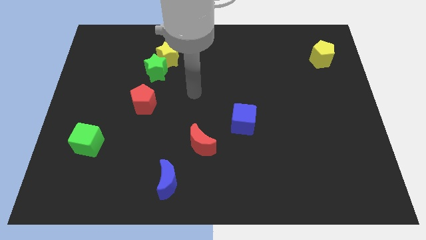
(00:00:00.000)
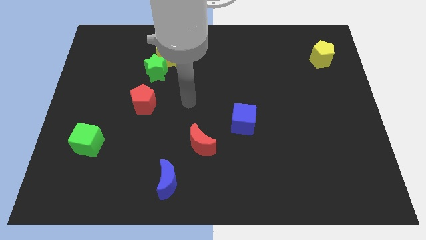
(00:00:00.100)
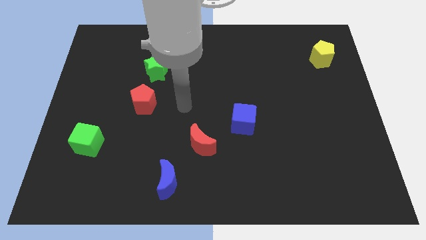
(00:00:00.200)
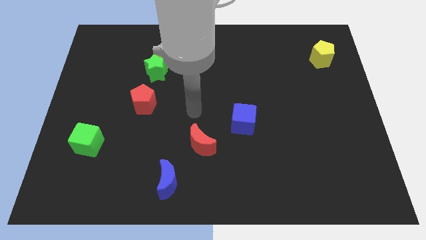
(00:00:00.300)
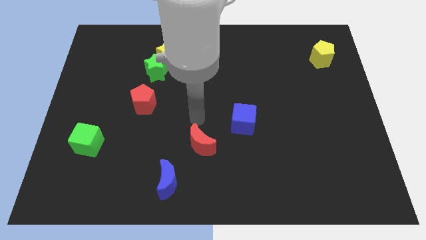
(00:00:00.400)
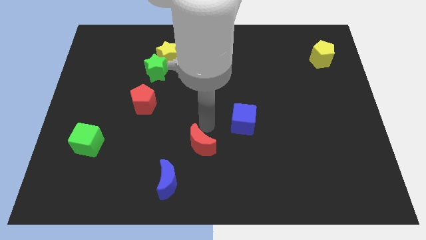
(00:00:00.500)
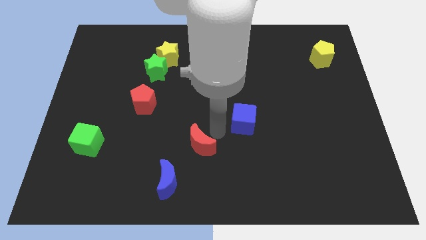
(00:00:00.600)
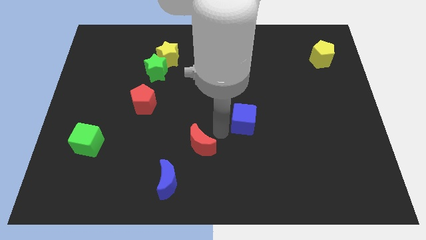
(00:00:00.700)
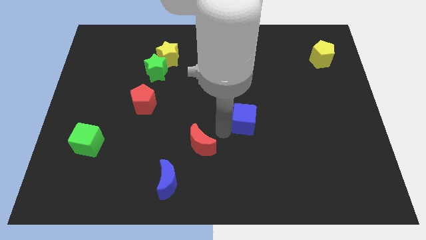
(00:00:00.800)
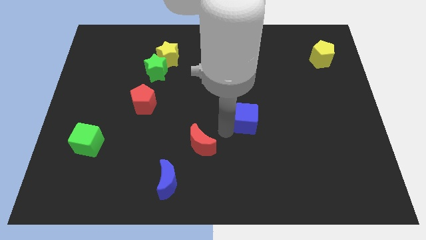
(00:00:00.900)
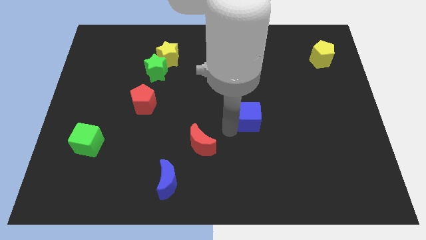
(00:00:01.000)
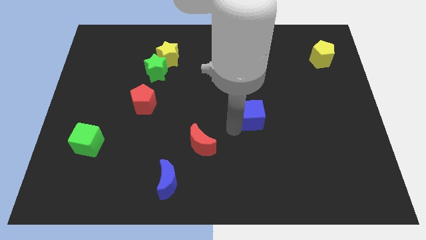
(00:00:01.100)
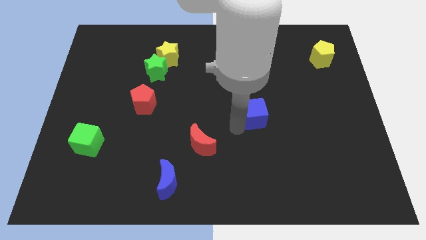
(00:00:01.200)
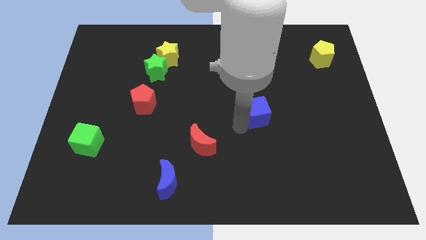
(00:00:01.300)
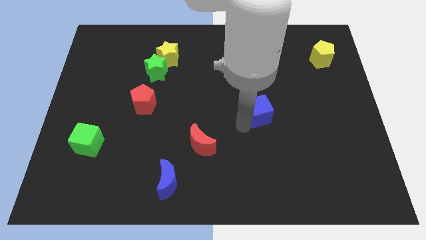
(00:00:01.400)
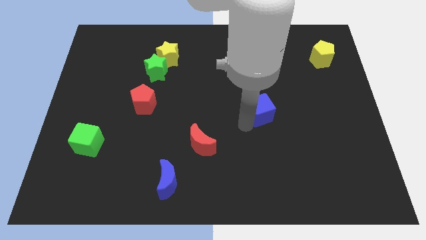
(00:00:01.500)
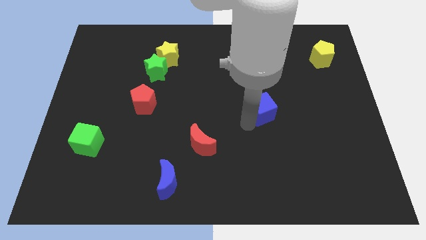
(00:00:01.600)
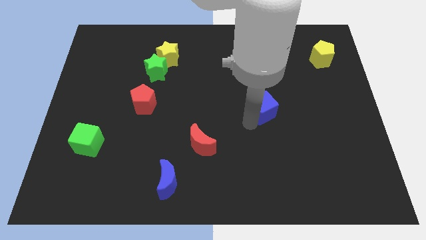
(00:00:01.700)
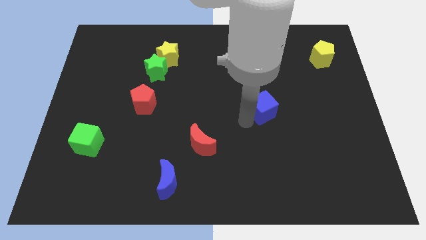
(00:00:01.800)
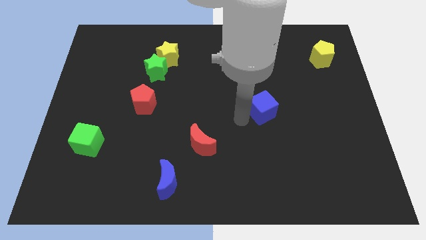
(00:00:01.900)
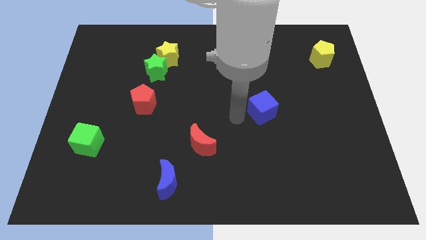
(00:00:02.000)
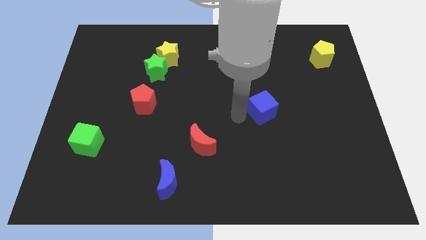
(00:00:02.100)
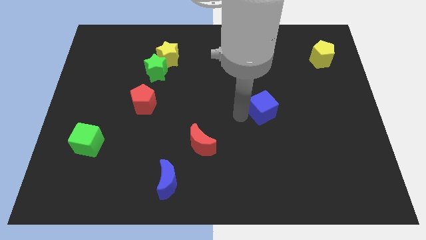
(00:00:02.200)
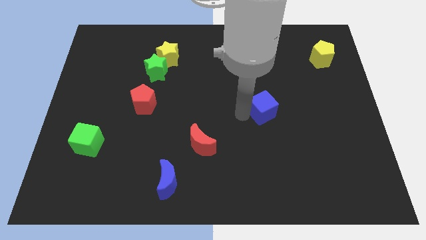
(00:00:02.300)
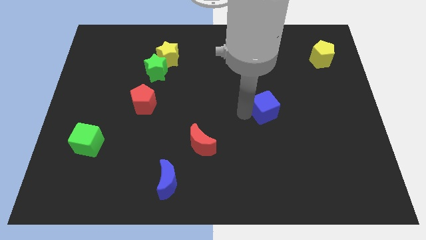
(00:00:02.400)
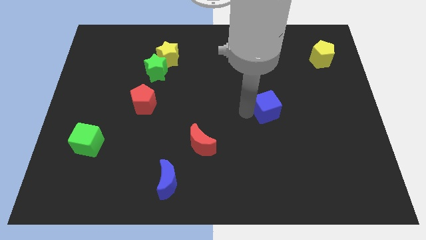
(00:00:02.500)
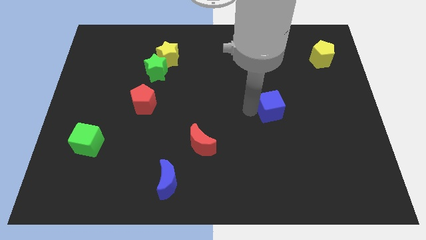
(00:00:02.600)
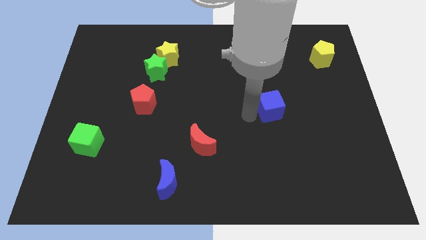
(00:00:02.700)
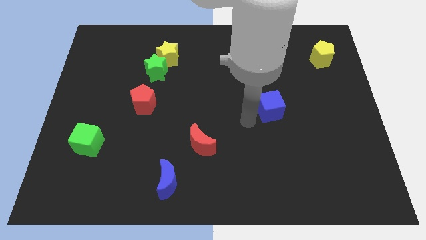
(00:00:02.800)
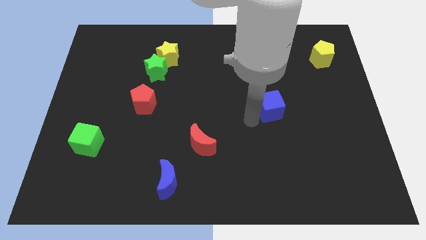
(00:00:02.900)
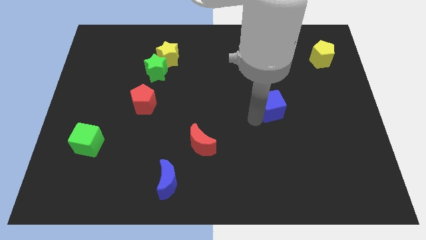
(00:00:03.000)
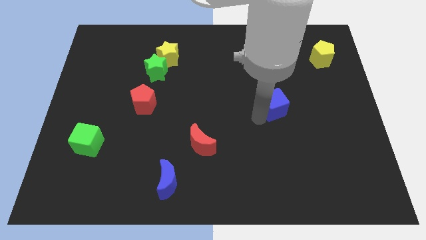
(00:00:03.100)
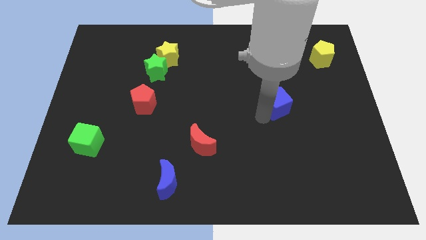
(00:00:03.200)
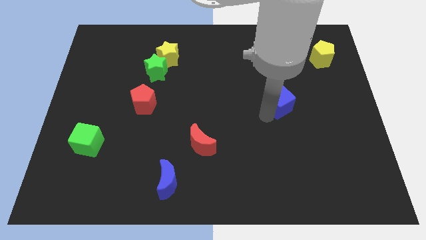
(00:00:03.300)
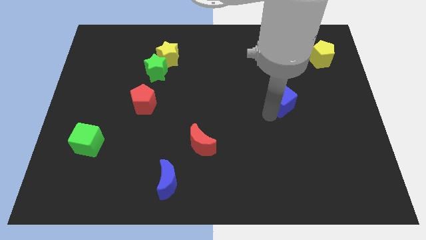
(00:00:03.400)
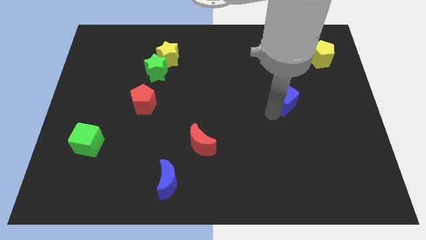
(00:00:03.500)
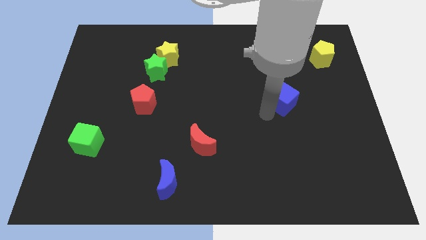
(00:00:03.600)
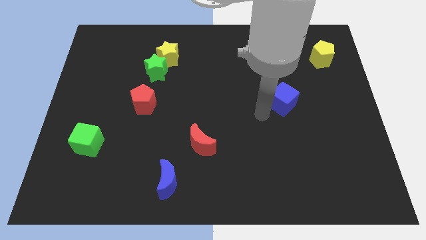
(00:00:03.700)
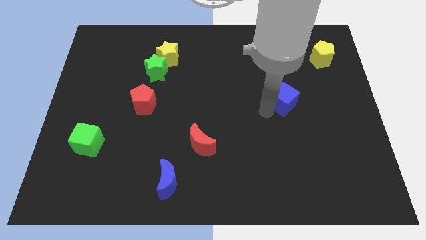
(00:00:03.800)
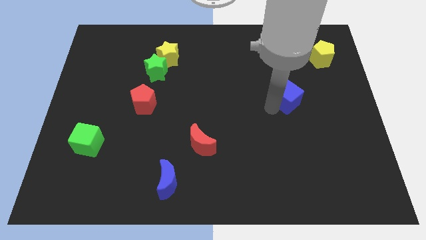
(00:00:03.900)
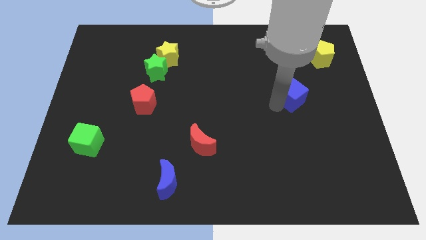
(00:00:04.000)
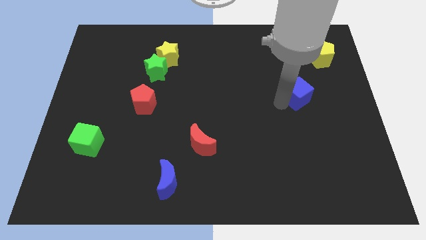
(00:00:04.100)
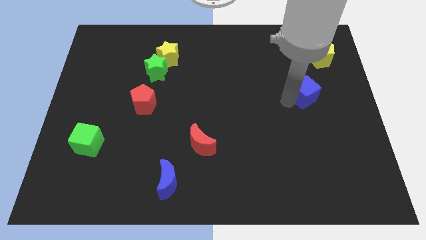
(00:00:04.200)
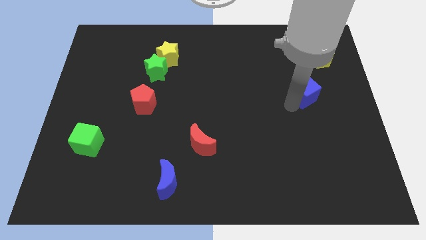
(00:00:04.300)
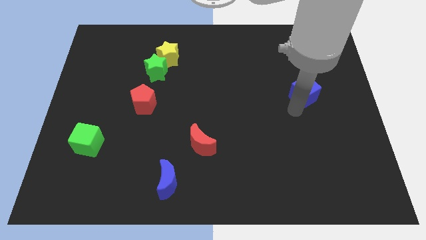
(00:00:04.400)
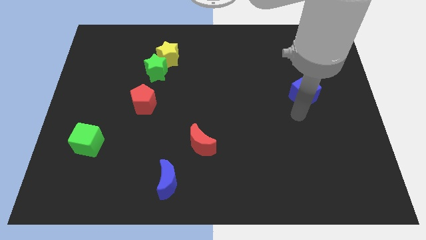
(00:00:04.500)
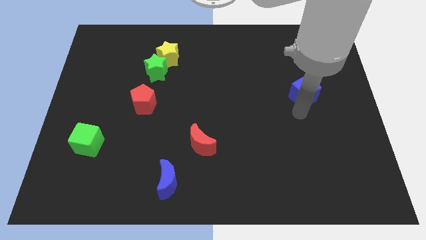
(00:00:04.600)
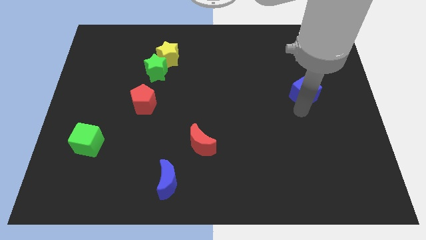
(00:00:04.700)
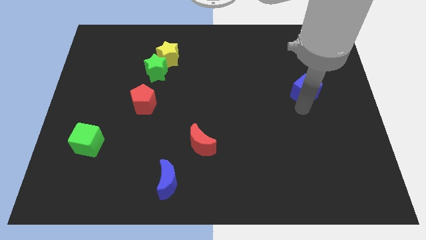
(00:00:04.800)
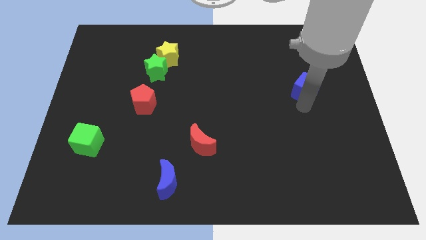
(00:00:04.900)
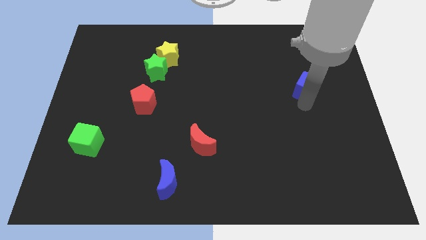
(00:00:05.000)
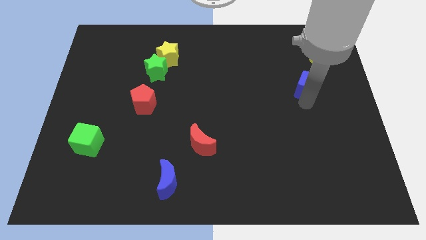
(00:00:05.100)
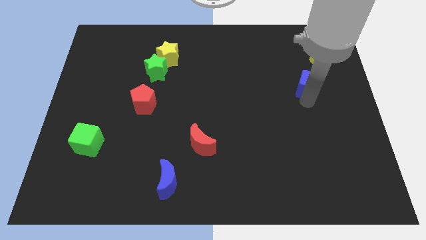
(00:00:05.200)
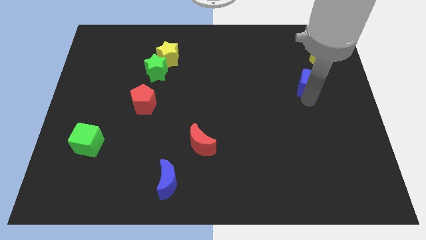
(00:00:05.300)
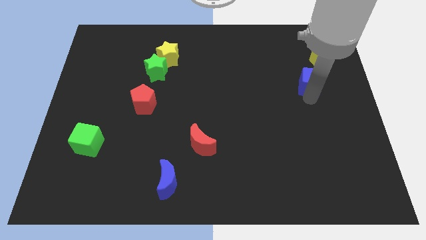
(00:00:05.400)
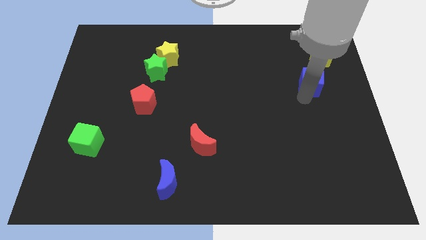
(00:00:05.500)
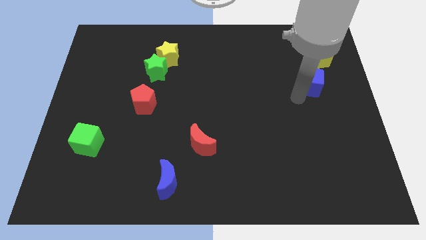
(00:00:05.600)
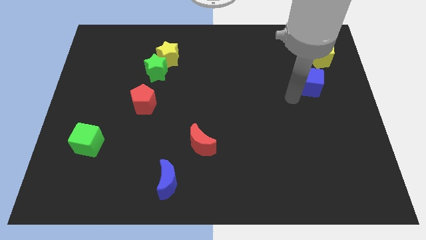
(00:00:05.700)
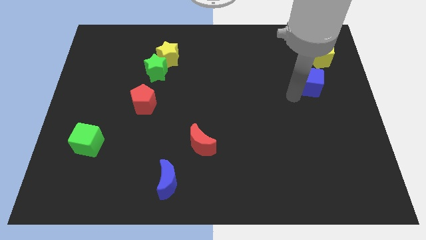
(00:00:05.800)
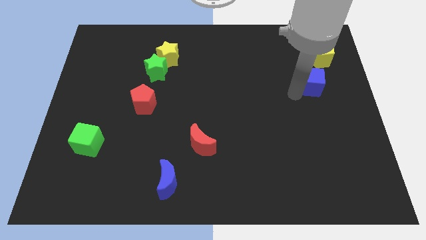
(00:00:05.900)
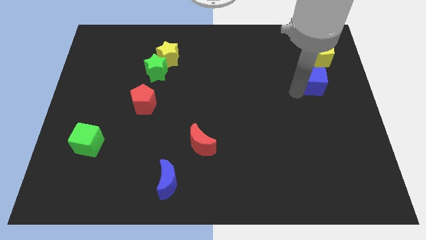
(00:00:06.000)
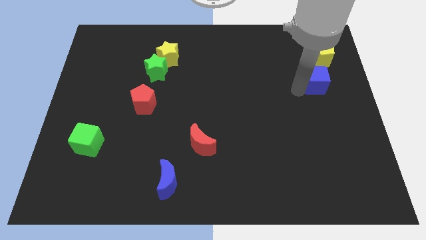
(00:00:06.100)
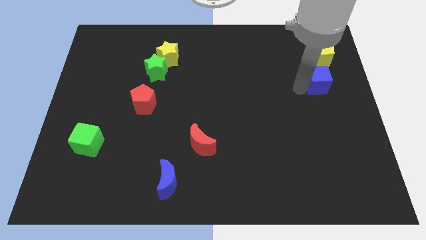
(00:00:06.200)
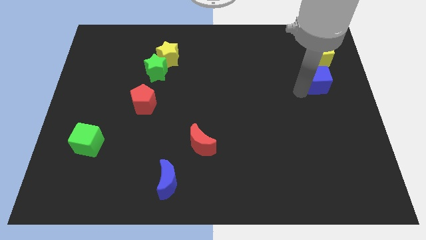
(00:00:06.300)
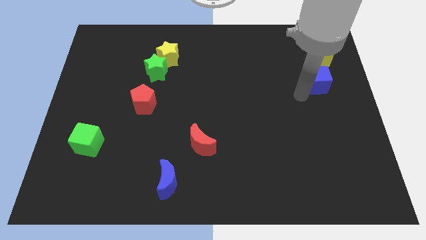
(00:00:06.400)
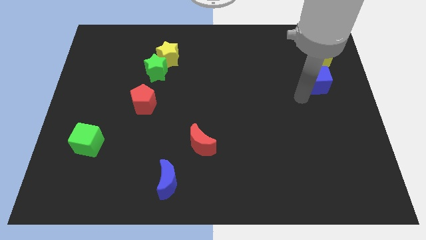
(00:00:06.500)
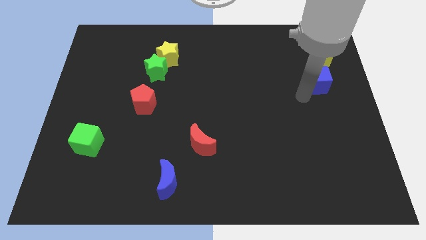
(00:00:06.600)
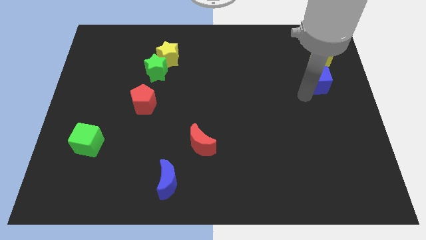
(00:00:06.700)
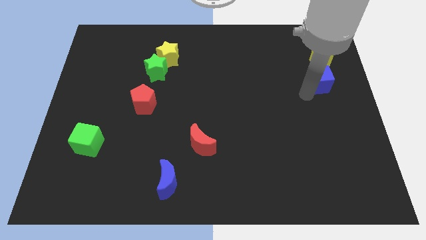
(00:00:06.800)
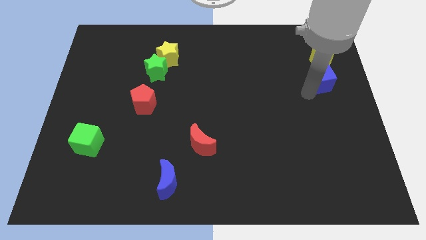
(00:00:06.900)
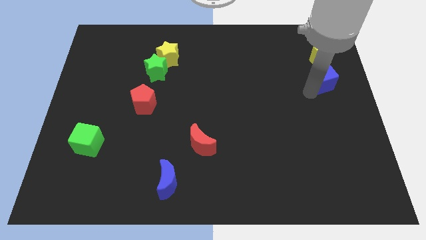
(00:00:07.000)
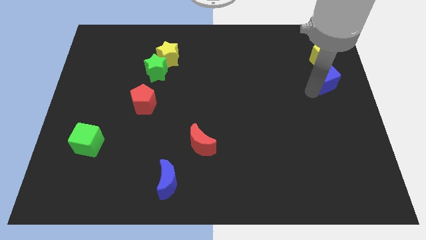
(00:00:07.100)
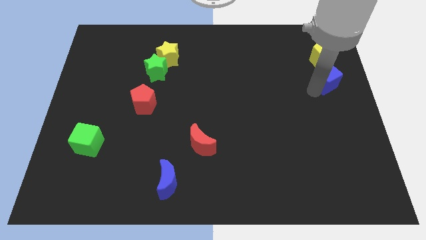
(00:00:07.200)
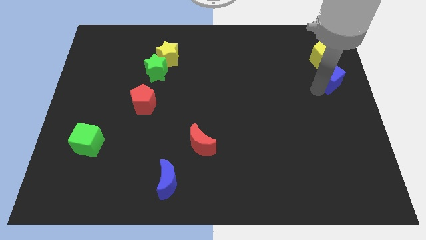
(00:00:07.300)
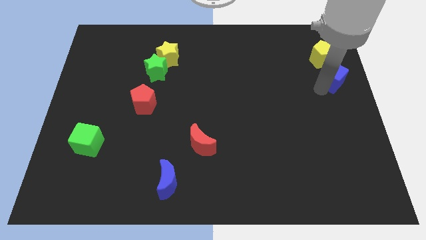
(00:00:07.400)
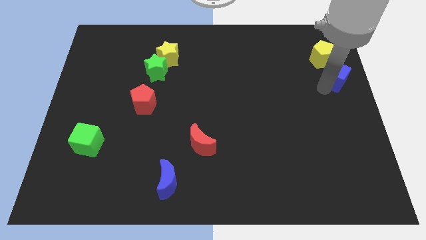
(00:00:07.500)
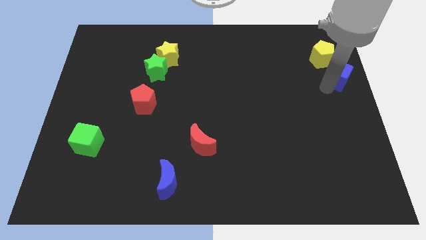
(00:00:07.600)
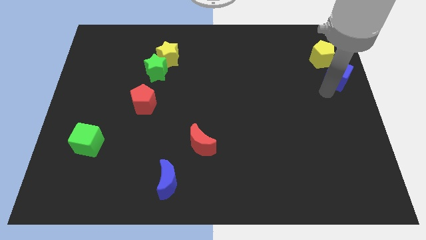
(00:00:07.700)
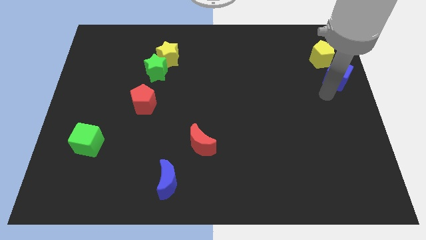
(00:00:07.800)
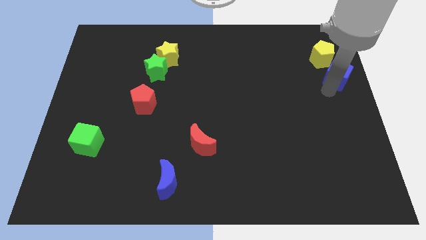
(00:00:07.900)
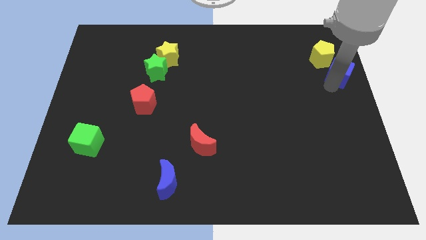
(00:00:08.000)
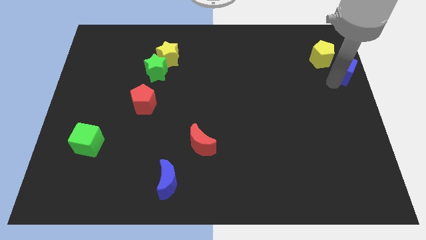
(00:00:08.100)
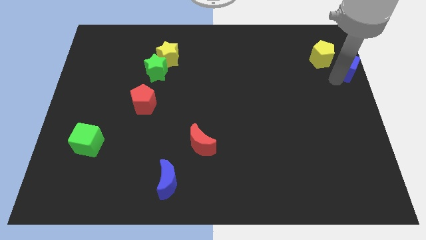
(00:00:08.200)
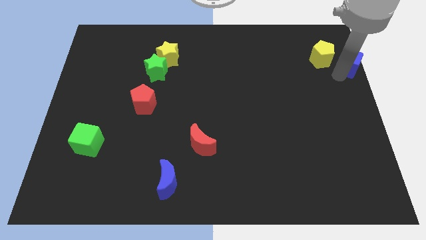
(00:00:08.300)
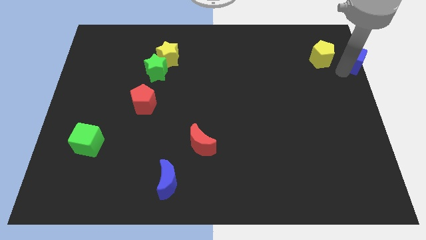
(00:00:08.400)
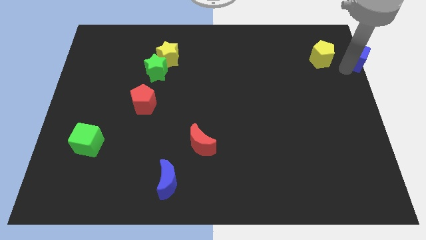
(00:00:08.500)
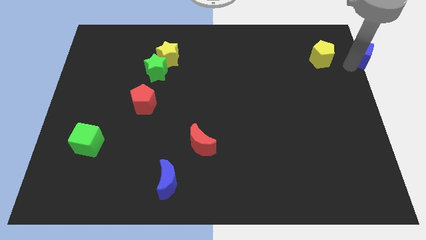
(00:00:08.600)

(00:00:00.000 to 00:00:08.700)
put the blue cube to the top right corner
